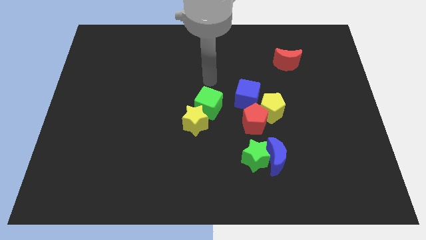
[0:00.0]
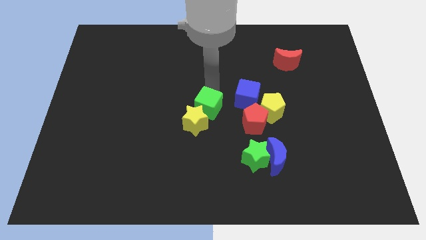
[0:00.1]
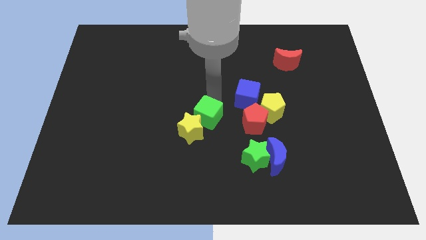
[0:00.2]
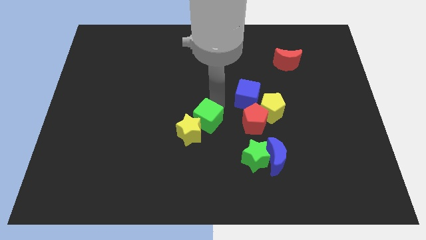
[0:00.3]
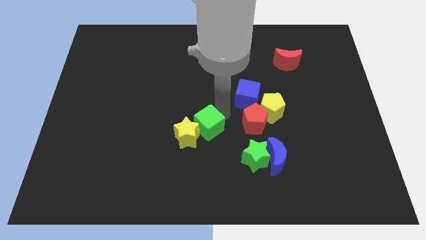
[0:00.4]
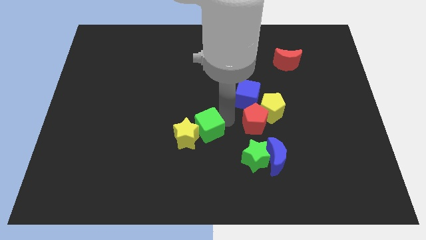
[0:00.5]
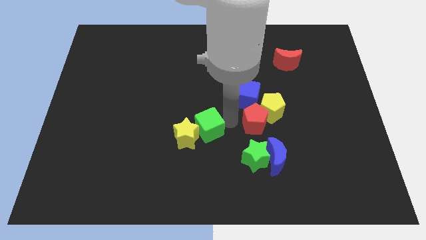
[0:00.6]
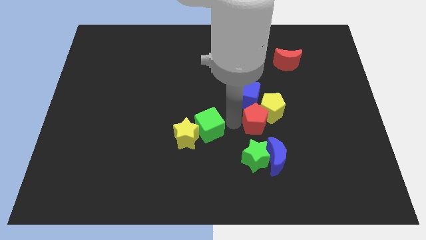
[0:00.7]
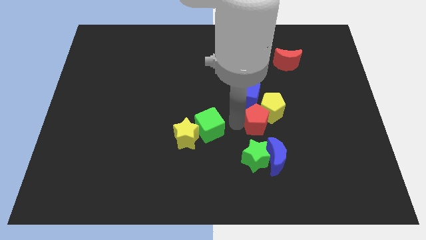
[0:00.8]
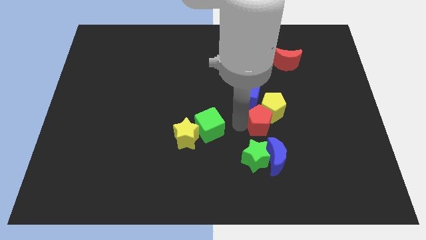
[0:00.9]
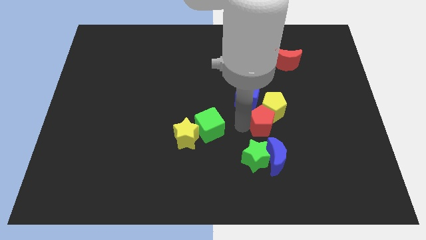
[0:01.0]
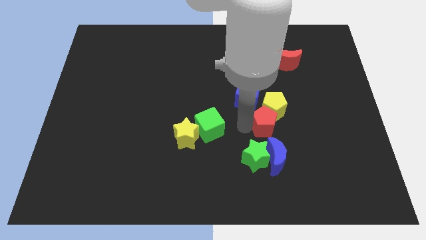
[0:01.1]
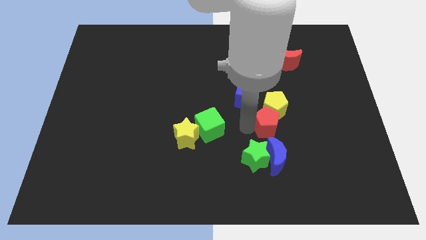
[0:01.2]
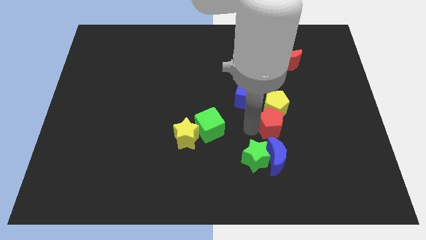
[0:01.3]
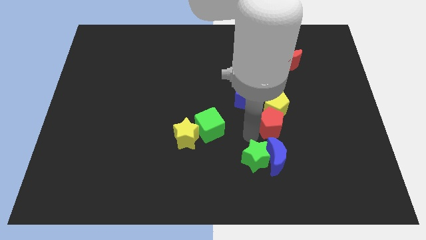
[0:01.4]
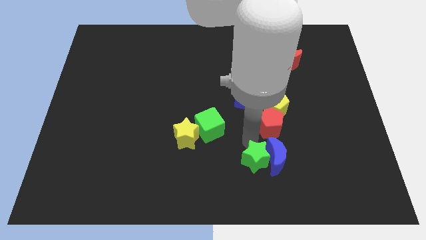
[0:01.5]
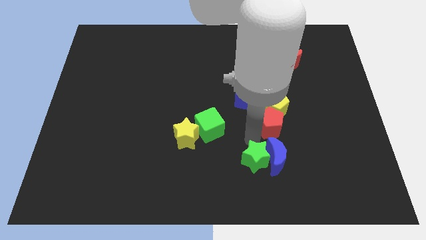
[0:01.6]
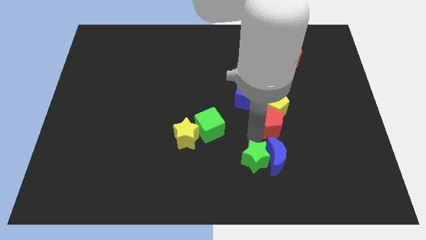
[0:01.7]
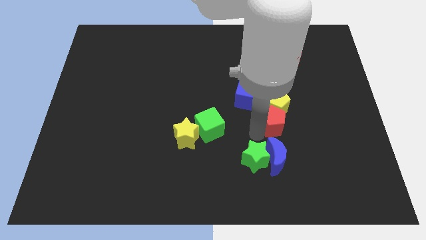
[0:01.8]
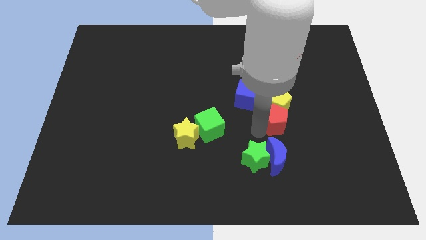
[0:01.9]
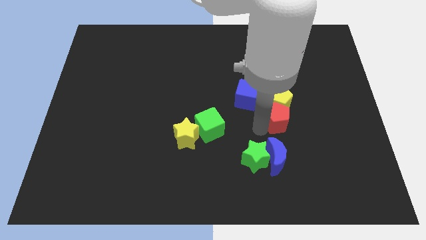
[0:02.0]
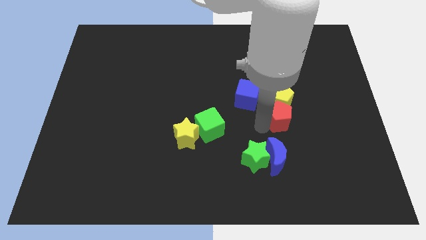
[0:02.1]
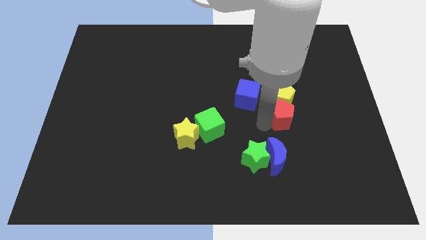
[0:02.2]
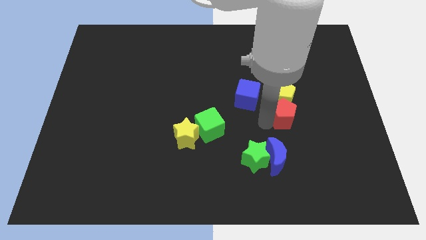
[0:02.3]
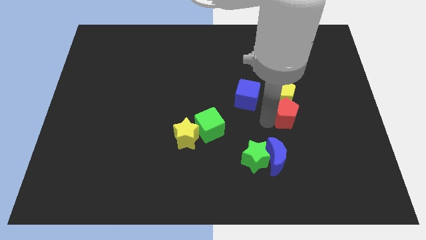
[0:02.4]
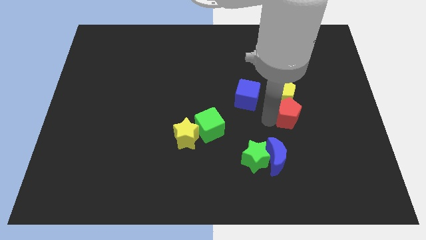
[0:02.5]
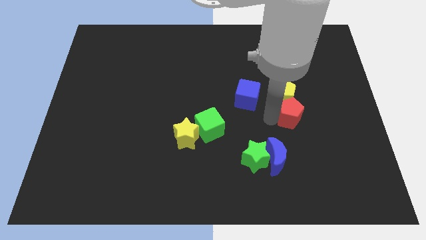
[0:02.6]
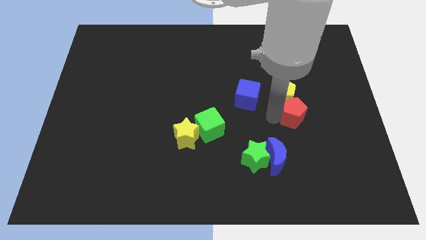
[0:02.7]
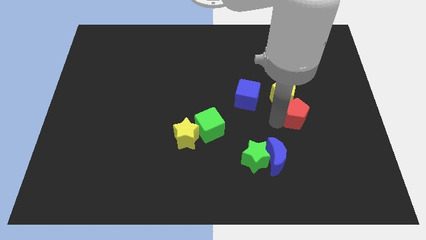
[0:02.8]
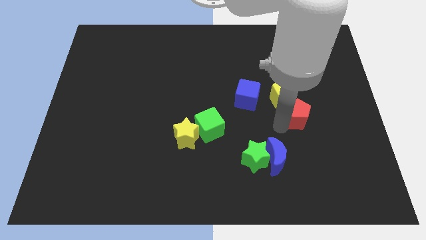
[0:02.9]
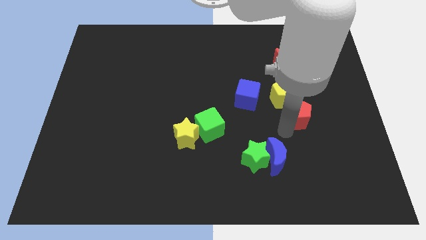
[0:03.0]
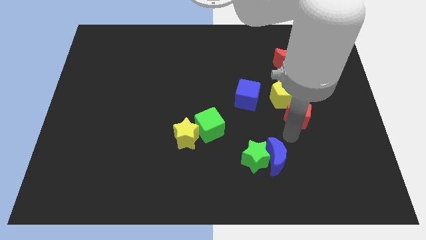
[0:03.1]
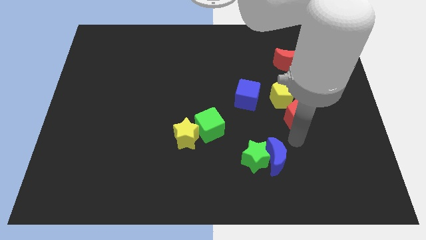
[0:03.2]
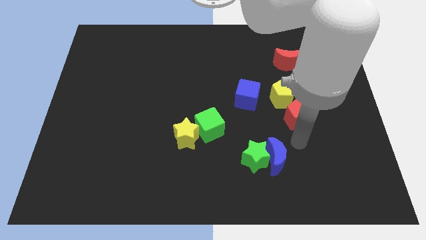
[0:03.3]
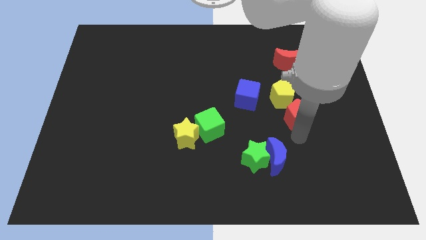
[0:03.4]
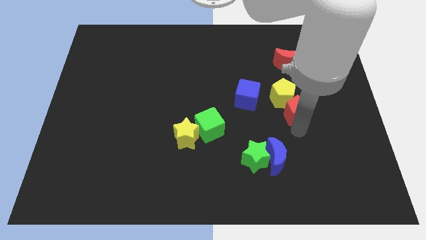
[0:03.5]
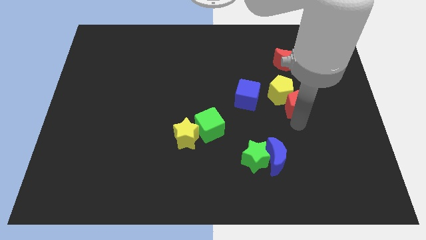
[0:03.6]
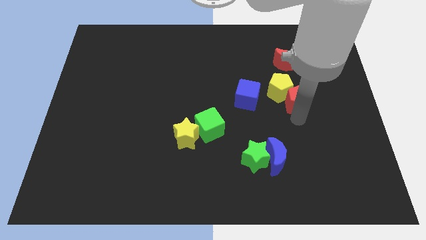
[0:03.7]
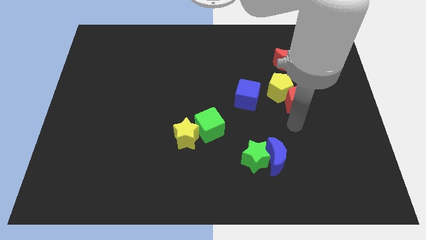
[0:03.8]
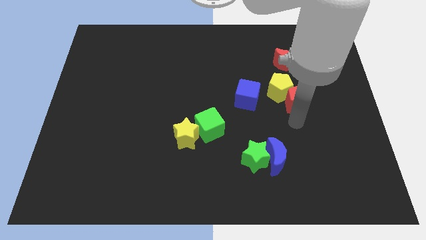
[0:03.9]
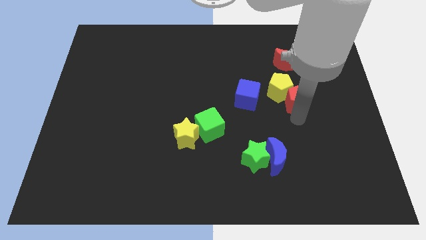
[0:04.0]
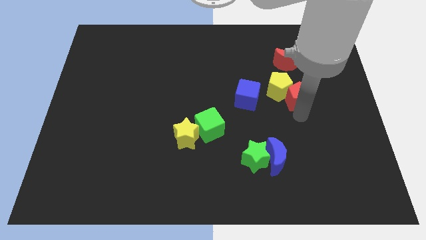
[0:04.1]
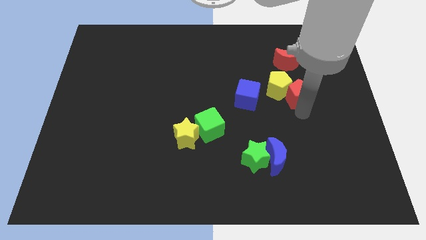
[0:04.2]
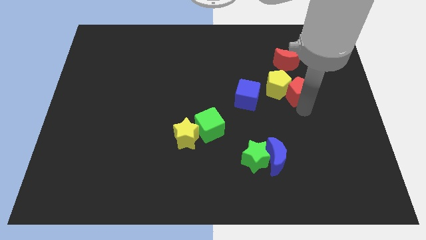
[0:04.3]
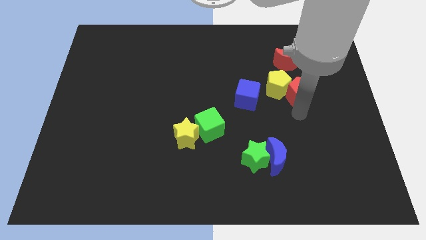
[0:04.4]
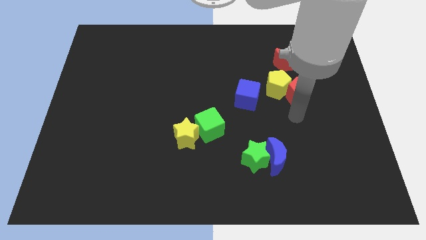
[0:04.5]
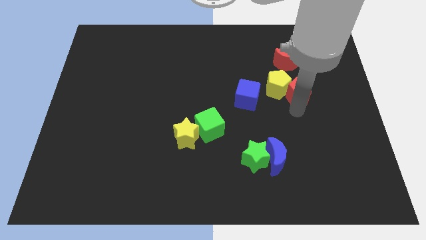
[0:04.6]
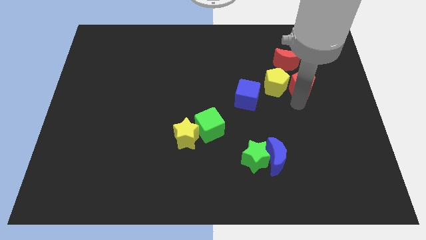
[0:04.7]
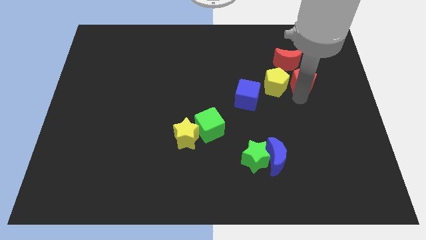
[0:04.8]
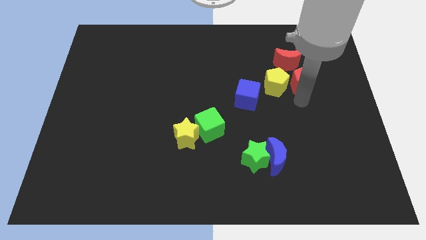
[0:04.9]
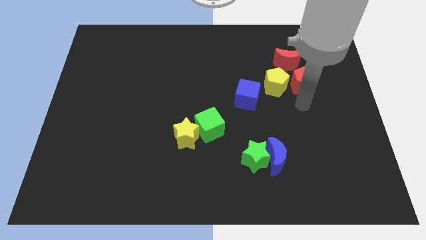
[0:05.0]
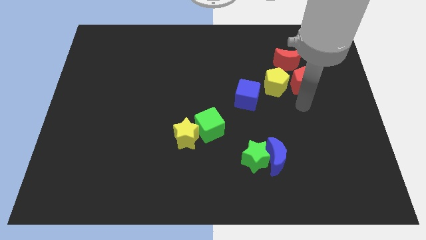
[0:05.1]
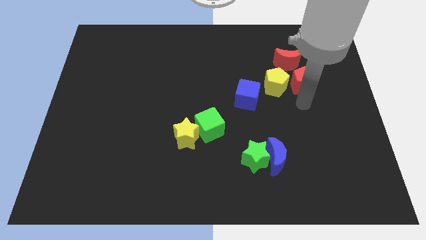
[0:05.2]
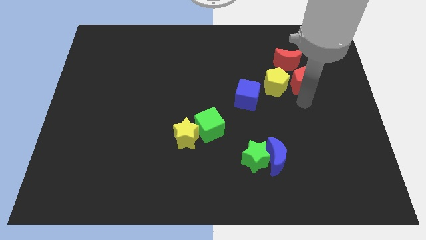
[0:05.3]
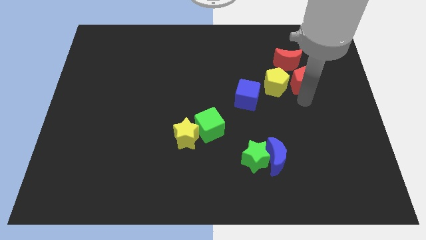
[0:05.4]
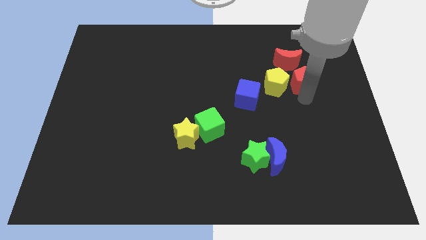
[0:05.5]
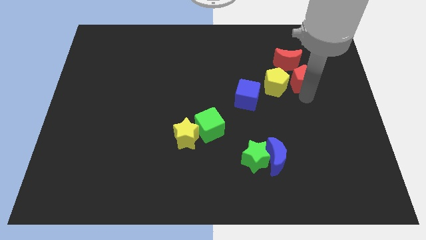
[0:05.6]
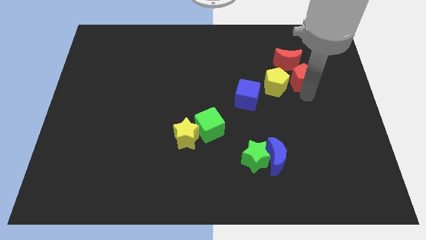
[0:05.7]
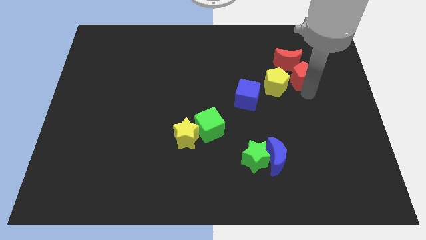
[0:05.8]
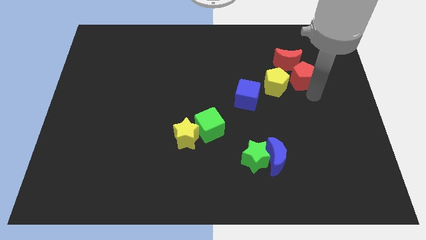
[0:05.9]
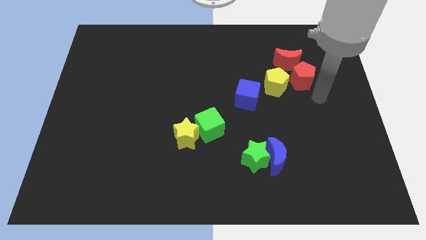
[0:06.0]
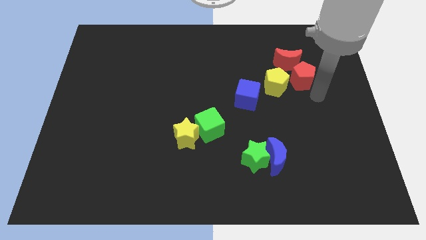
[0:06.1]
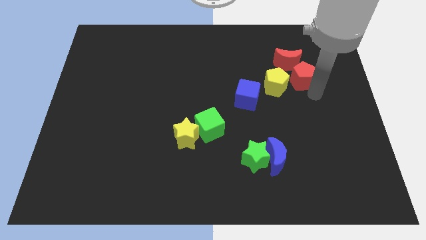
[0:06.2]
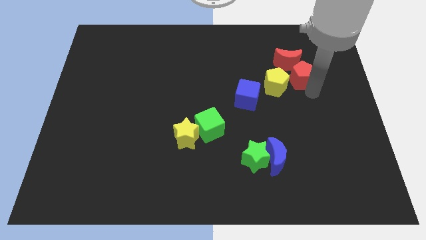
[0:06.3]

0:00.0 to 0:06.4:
move the red pentagon close to the red moon

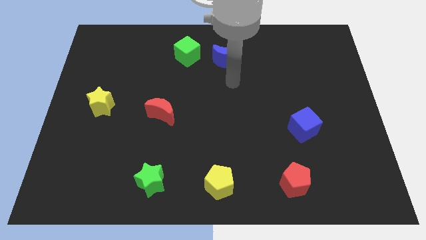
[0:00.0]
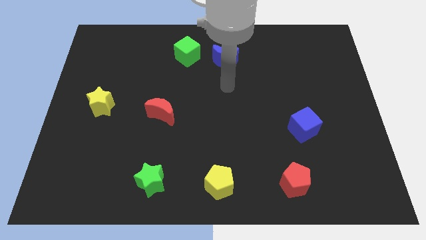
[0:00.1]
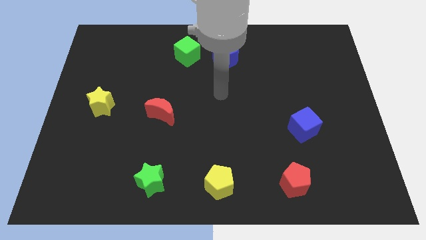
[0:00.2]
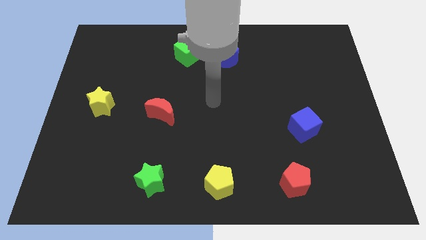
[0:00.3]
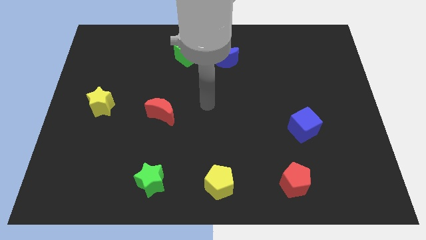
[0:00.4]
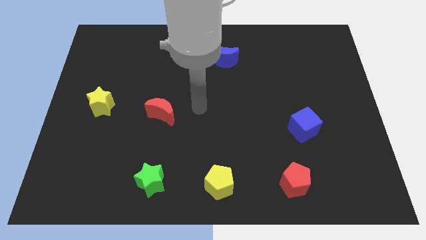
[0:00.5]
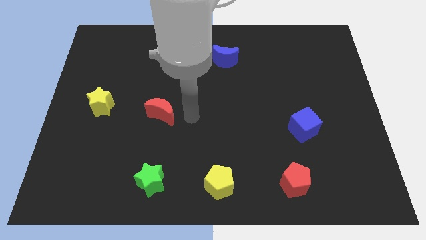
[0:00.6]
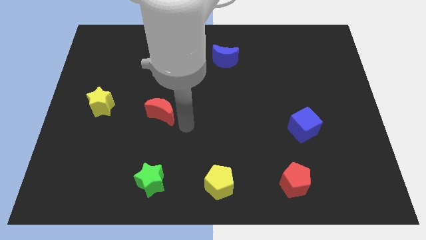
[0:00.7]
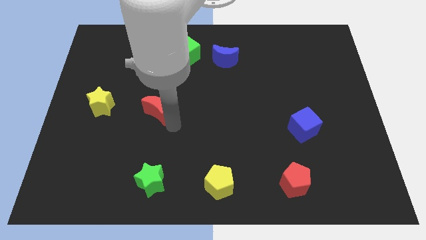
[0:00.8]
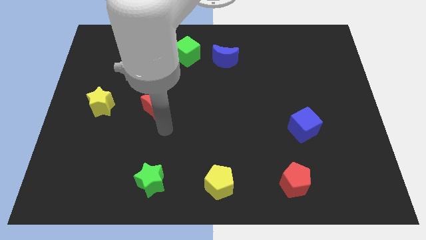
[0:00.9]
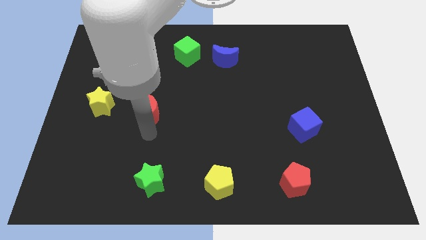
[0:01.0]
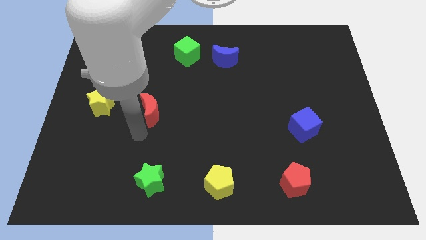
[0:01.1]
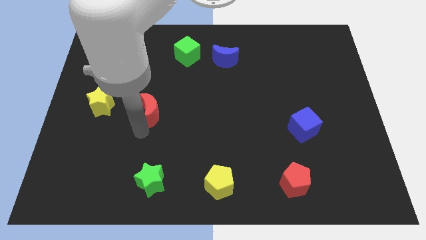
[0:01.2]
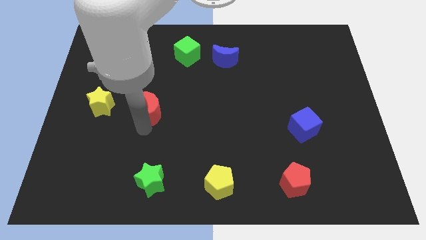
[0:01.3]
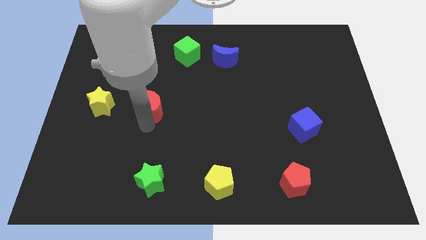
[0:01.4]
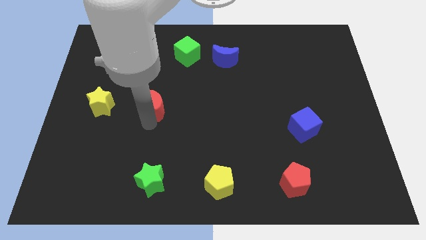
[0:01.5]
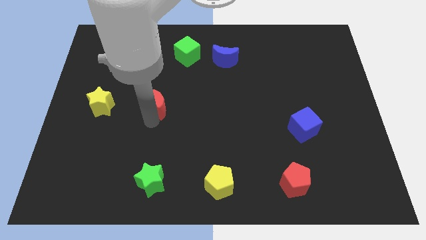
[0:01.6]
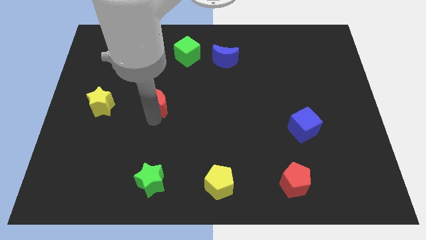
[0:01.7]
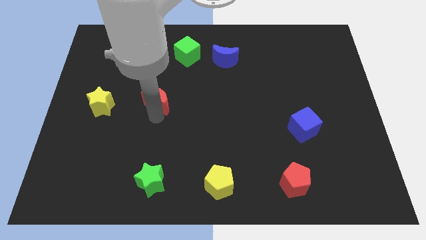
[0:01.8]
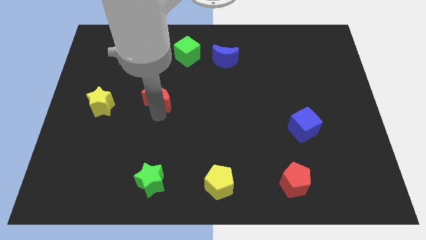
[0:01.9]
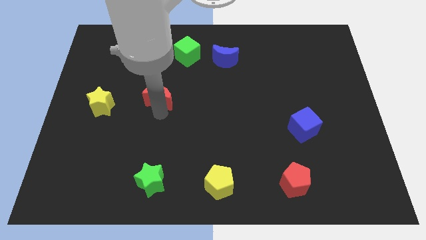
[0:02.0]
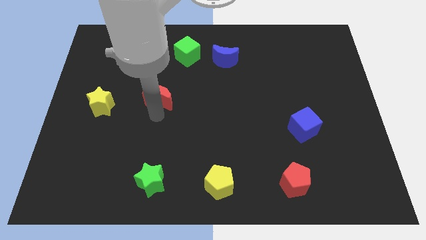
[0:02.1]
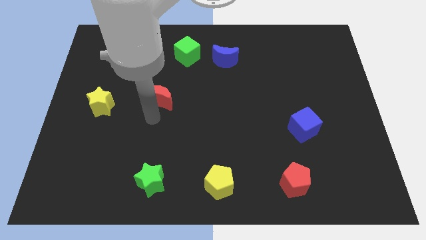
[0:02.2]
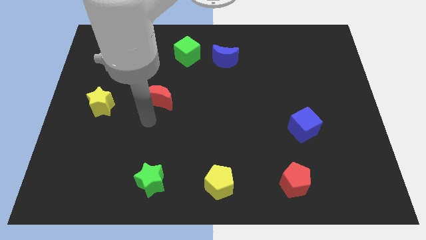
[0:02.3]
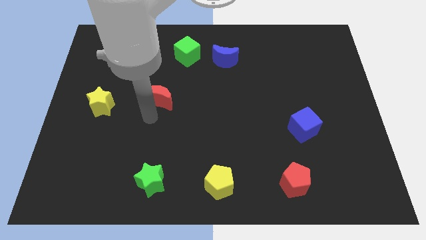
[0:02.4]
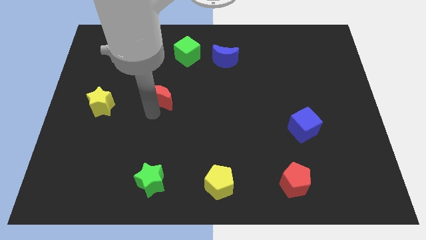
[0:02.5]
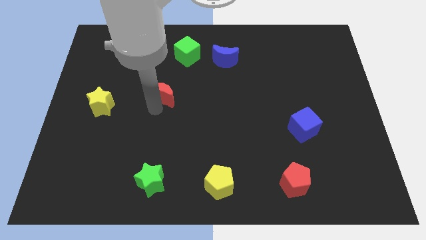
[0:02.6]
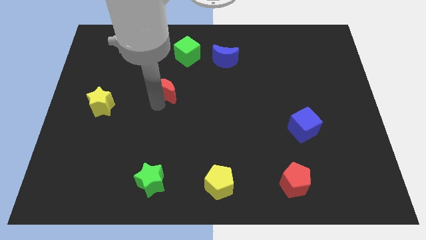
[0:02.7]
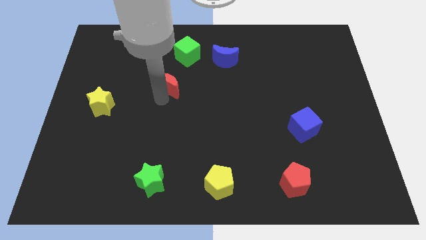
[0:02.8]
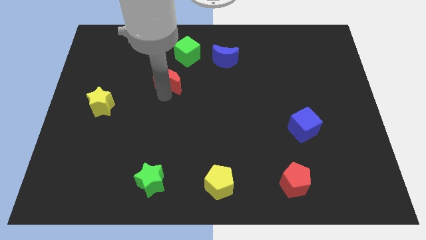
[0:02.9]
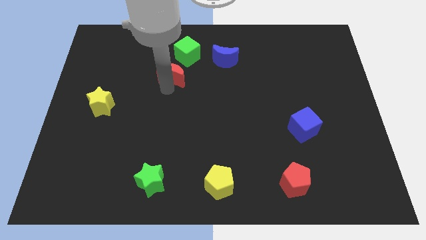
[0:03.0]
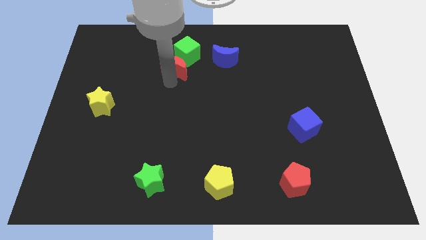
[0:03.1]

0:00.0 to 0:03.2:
push the red moon to the green cube
